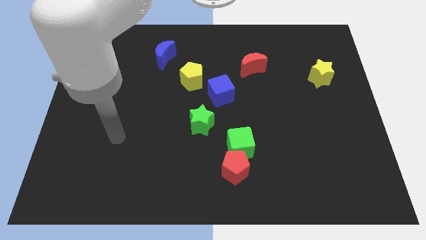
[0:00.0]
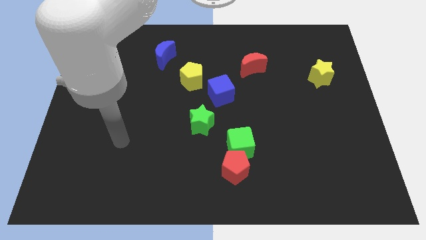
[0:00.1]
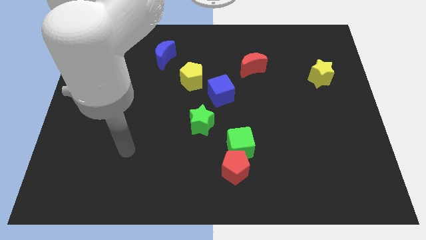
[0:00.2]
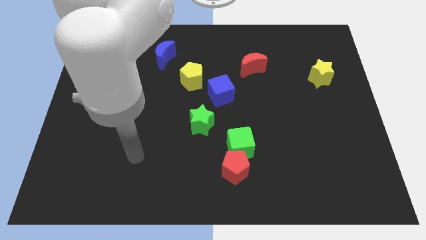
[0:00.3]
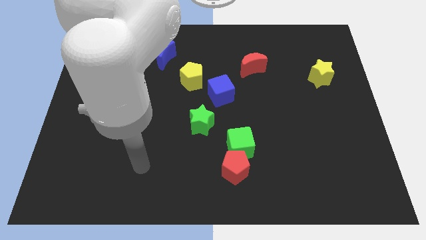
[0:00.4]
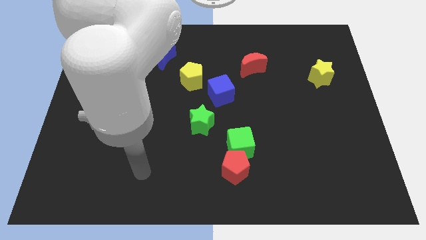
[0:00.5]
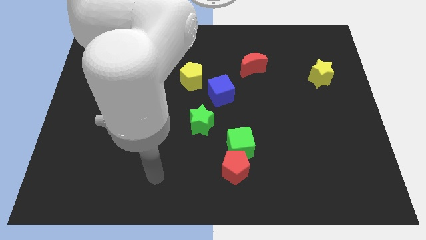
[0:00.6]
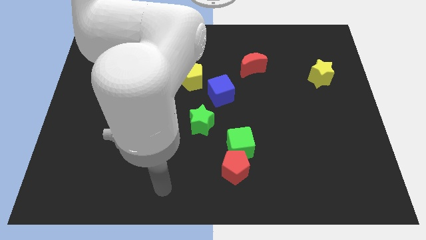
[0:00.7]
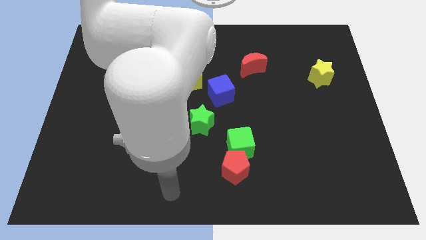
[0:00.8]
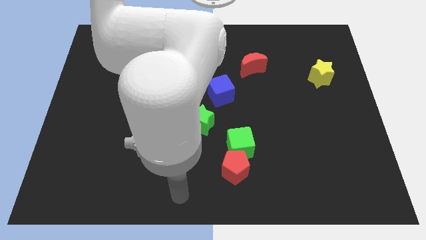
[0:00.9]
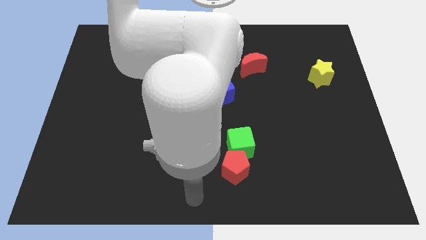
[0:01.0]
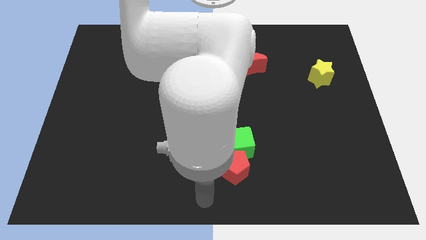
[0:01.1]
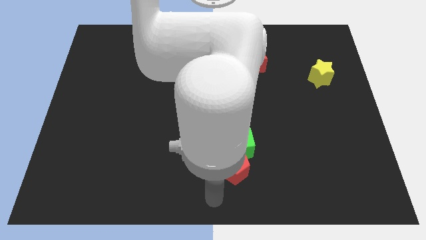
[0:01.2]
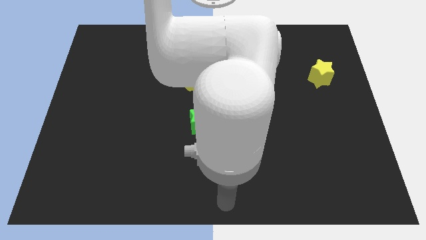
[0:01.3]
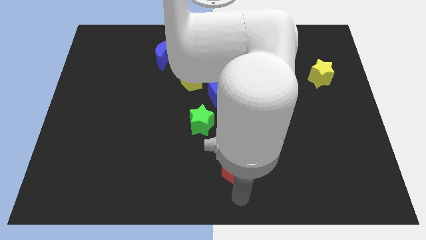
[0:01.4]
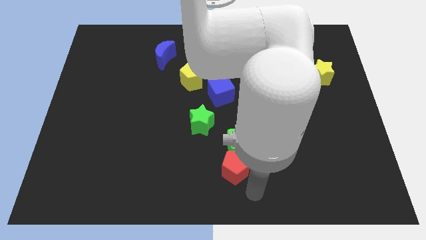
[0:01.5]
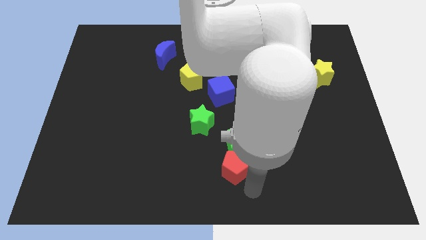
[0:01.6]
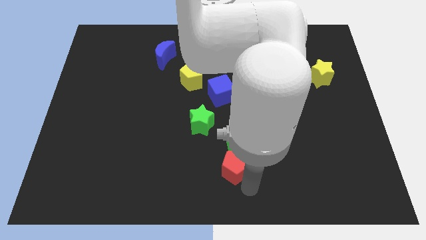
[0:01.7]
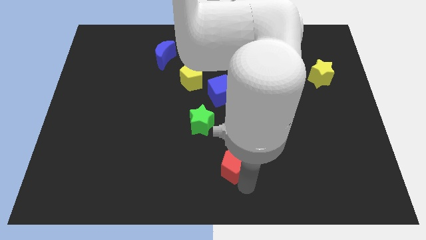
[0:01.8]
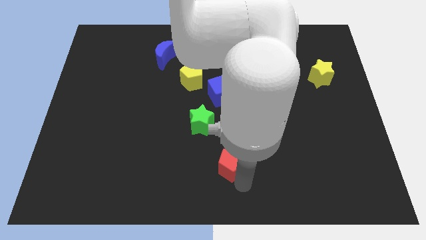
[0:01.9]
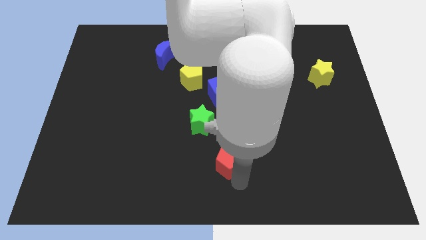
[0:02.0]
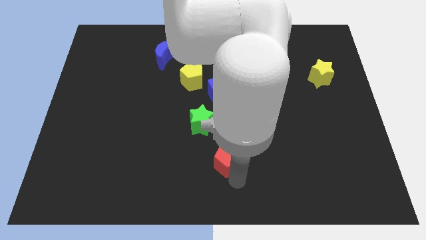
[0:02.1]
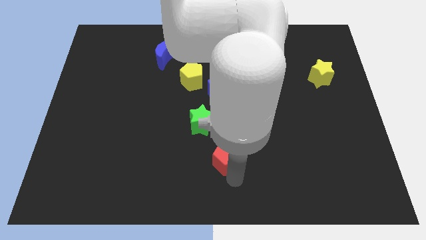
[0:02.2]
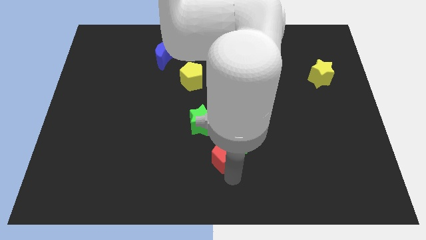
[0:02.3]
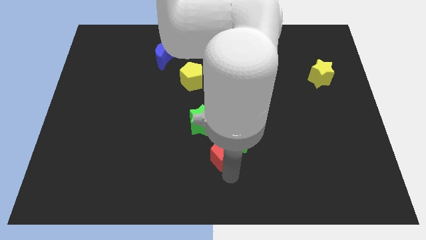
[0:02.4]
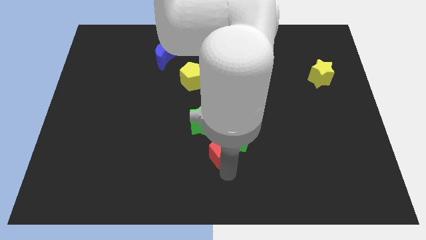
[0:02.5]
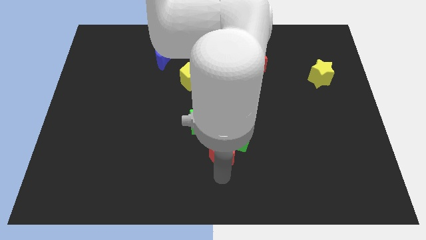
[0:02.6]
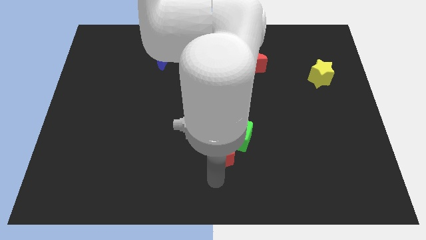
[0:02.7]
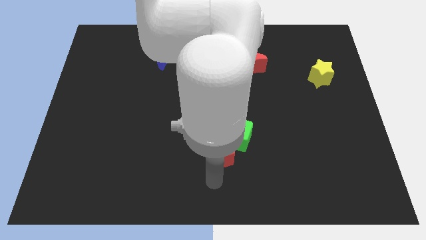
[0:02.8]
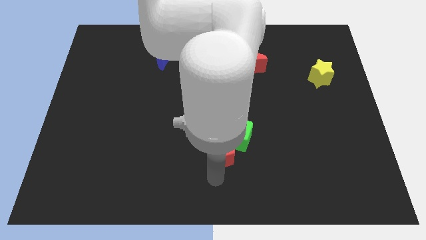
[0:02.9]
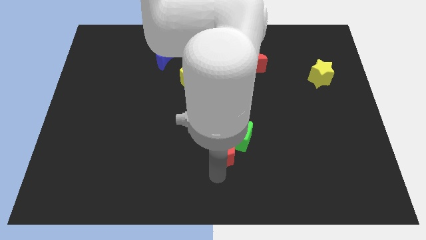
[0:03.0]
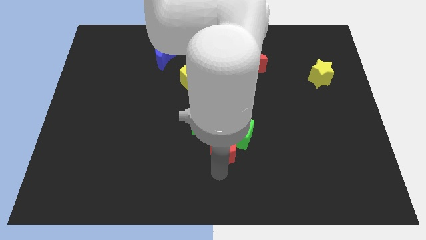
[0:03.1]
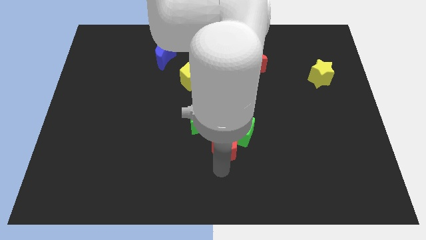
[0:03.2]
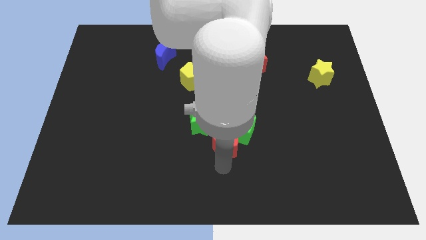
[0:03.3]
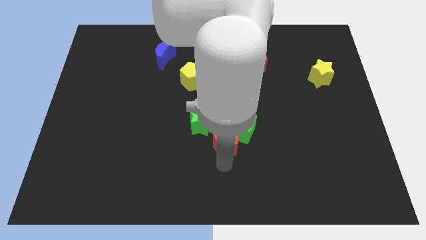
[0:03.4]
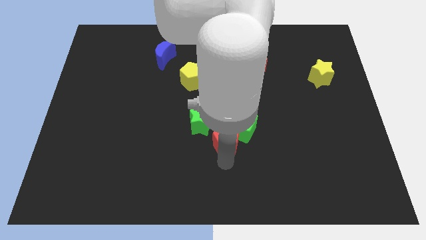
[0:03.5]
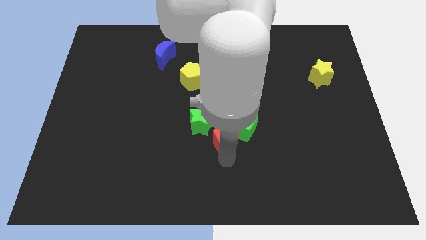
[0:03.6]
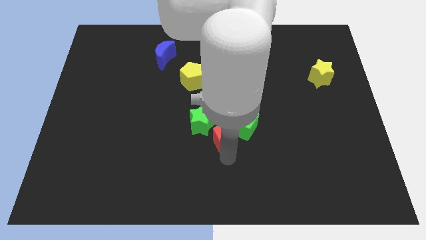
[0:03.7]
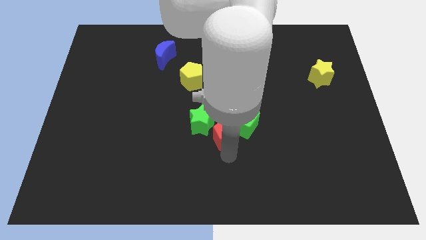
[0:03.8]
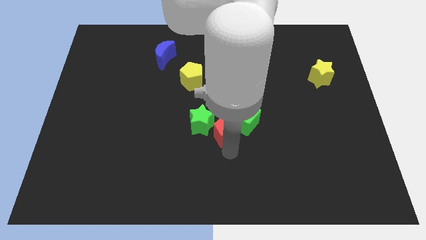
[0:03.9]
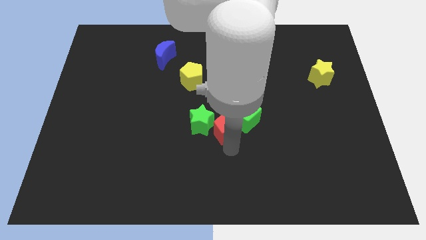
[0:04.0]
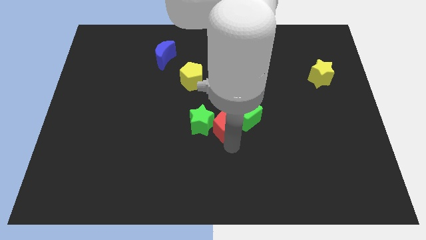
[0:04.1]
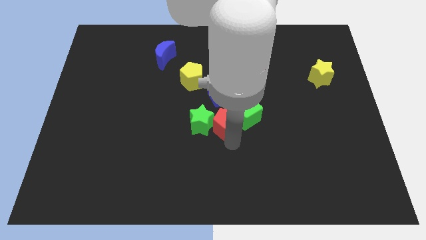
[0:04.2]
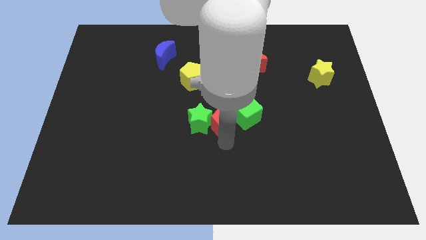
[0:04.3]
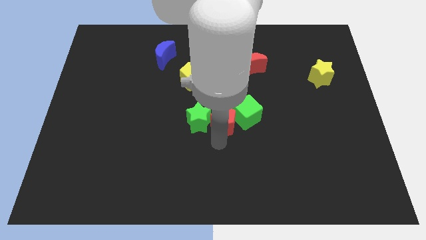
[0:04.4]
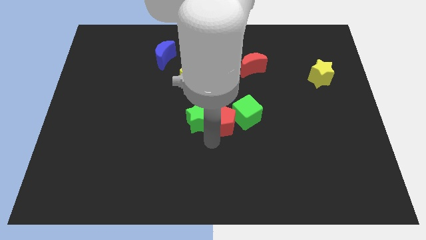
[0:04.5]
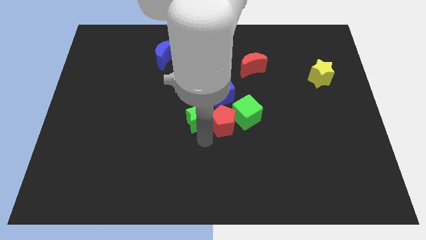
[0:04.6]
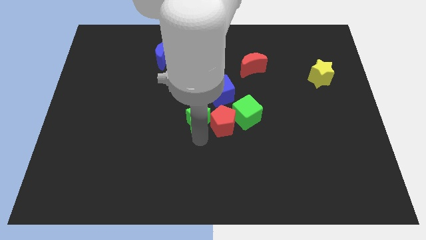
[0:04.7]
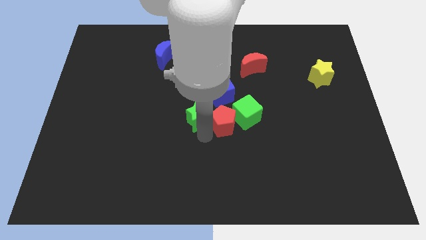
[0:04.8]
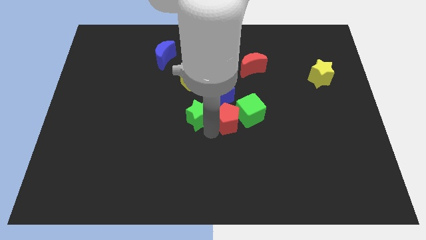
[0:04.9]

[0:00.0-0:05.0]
slide the red pentagon to the bottom right of the blue cube

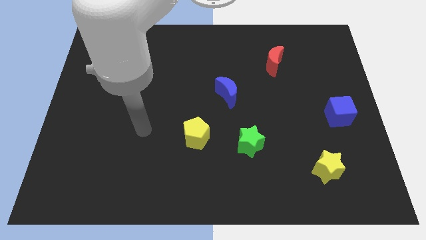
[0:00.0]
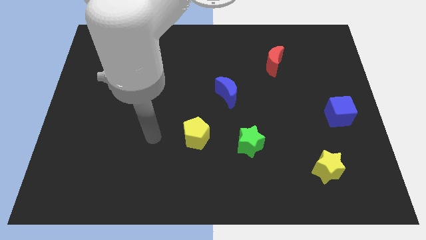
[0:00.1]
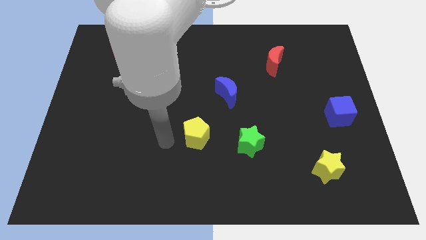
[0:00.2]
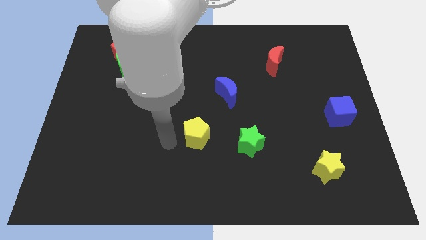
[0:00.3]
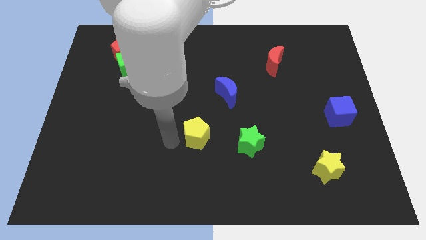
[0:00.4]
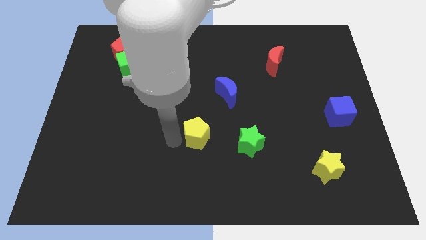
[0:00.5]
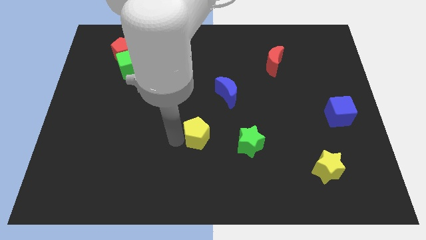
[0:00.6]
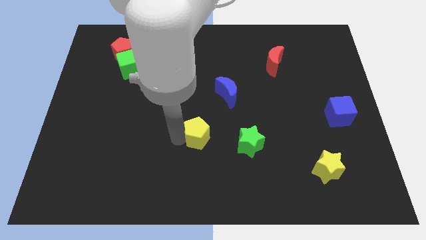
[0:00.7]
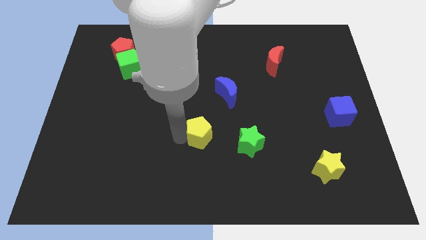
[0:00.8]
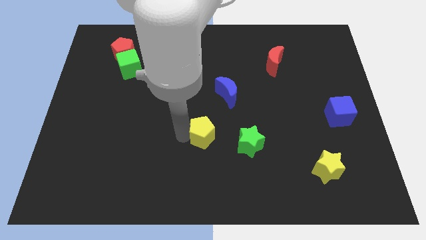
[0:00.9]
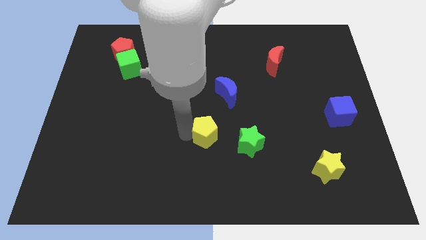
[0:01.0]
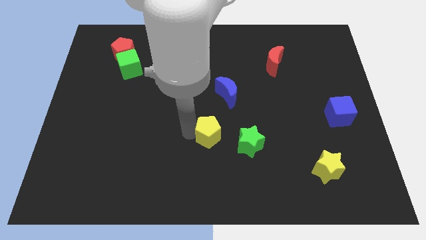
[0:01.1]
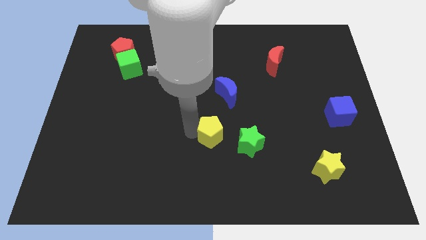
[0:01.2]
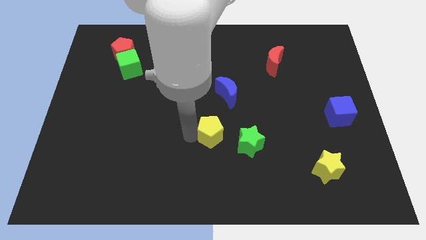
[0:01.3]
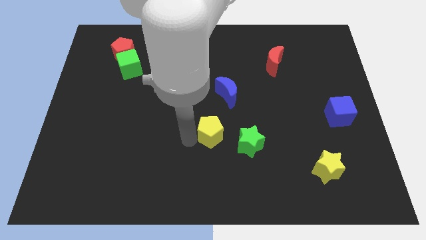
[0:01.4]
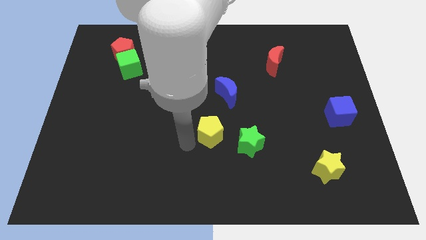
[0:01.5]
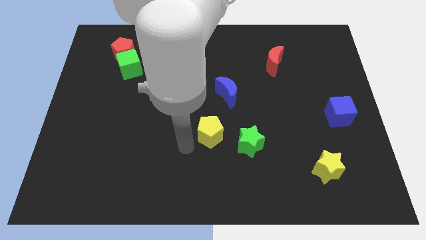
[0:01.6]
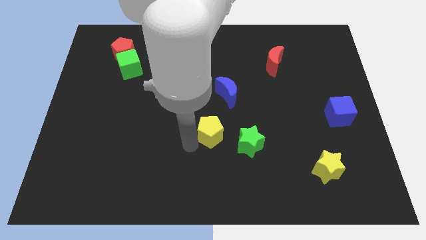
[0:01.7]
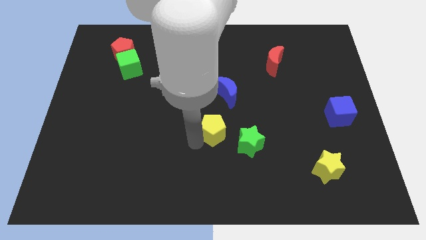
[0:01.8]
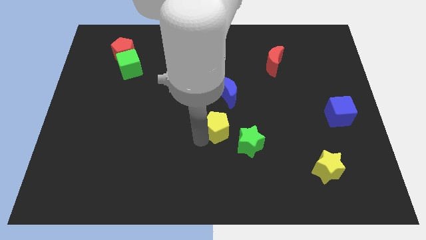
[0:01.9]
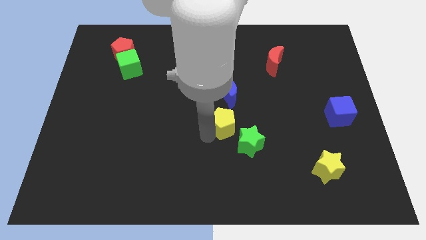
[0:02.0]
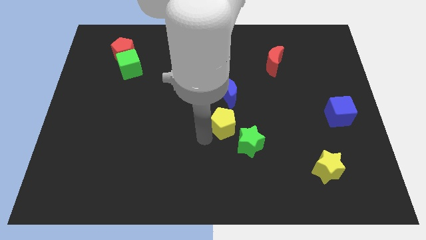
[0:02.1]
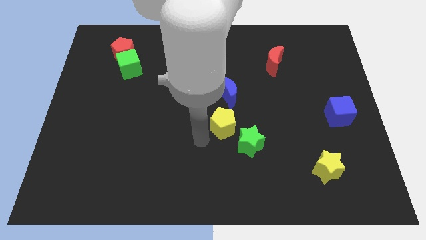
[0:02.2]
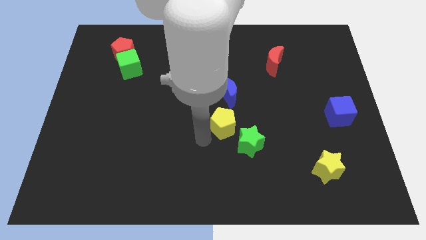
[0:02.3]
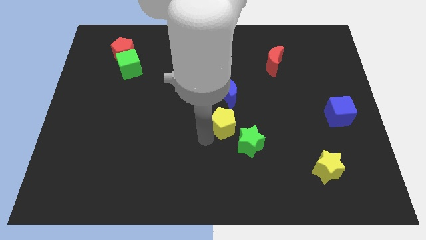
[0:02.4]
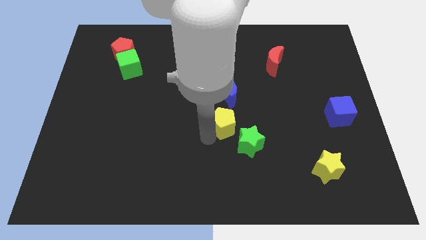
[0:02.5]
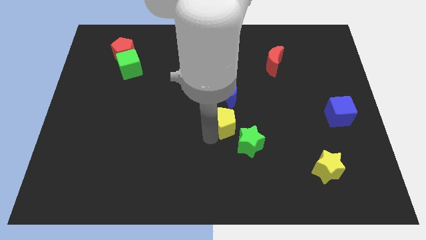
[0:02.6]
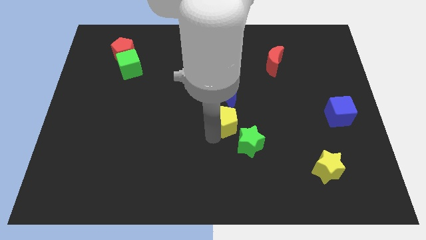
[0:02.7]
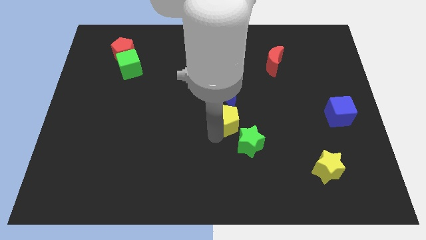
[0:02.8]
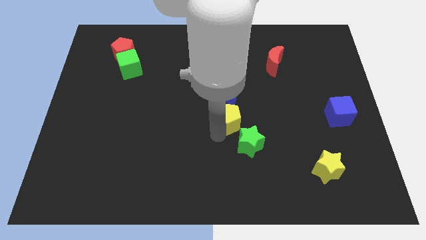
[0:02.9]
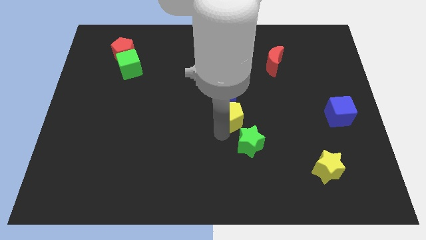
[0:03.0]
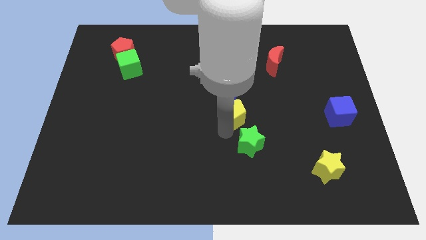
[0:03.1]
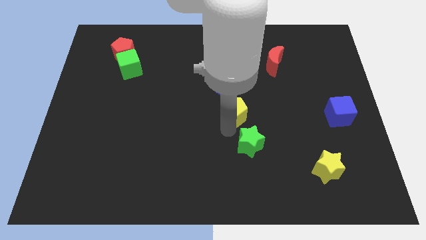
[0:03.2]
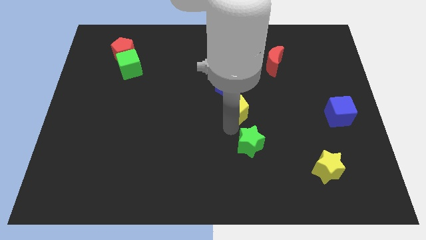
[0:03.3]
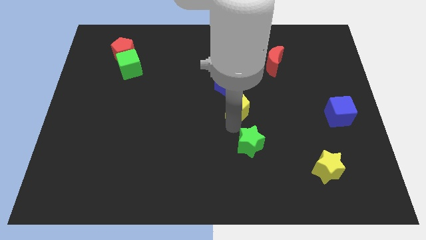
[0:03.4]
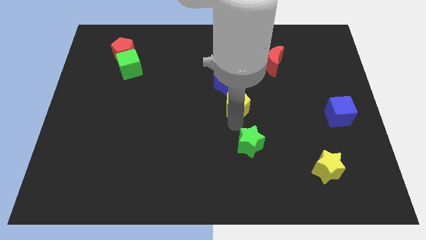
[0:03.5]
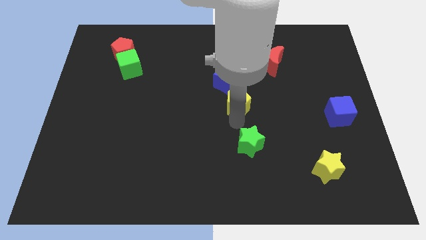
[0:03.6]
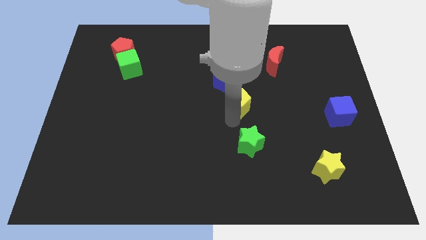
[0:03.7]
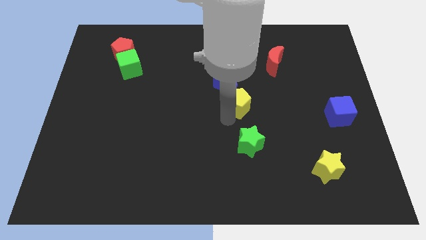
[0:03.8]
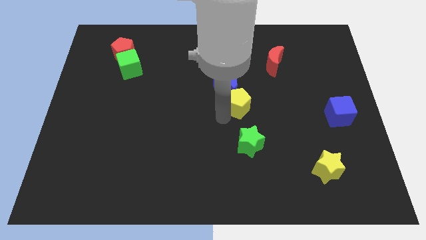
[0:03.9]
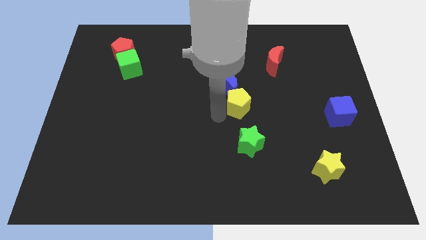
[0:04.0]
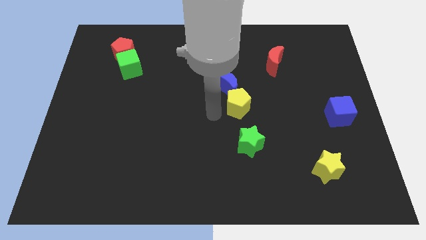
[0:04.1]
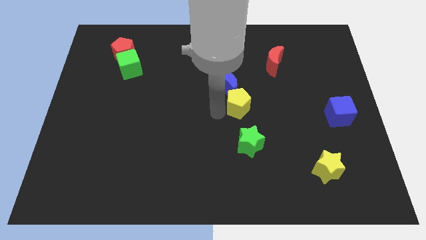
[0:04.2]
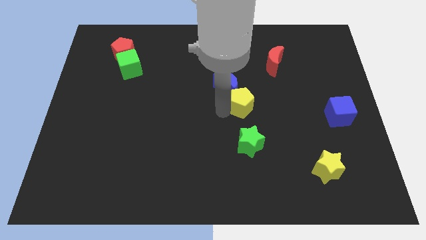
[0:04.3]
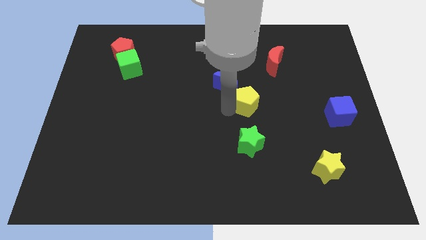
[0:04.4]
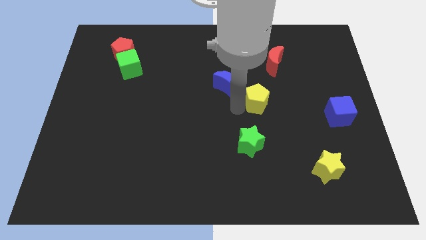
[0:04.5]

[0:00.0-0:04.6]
move the yellow pentagon right of the blue moon
